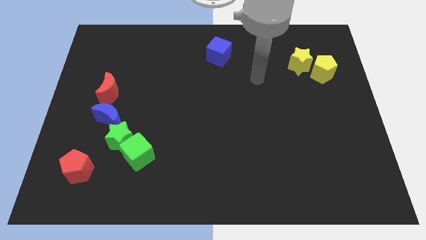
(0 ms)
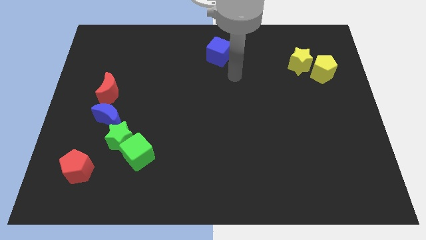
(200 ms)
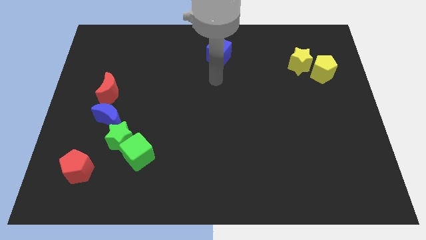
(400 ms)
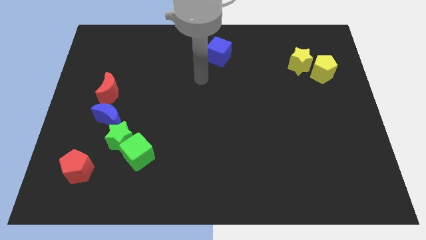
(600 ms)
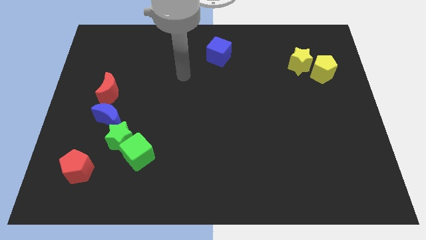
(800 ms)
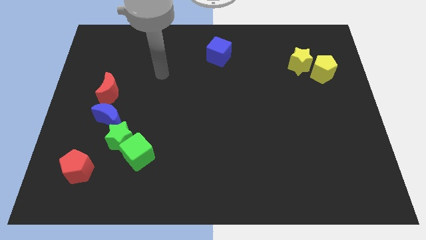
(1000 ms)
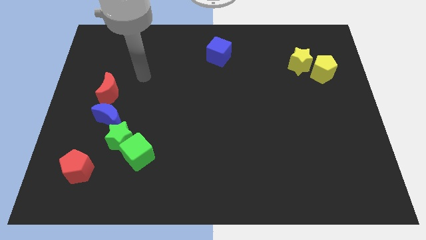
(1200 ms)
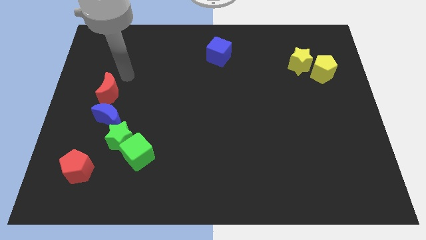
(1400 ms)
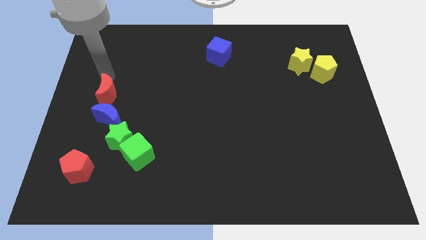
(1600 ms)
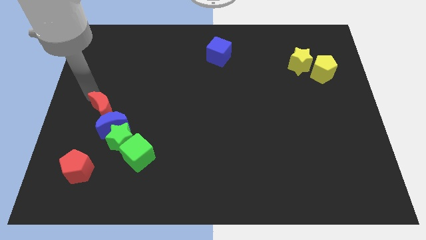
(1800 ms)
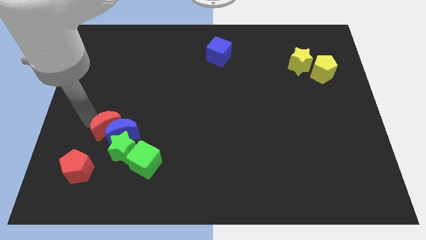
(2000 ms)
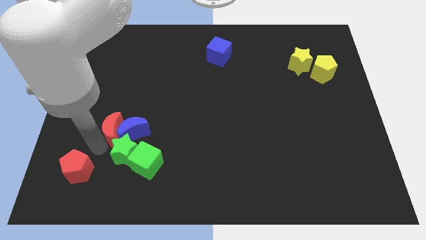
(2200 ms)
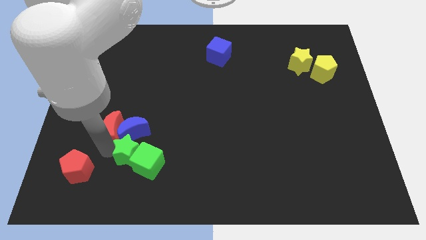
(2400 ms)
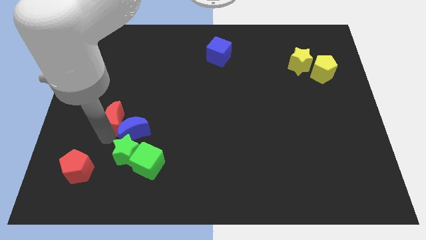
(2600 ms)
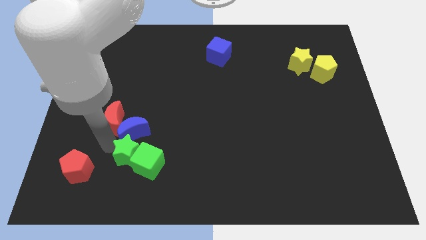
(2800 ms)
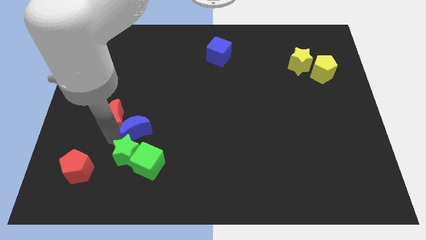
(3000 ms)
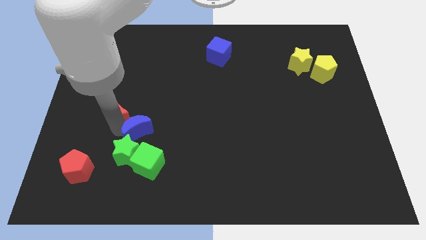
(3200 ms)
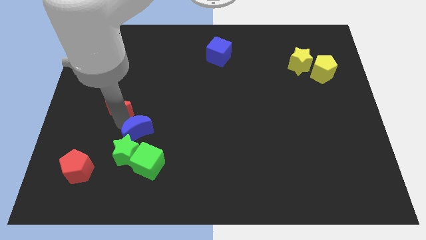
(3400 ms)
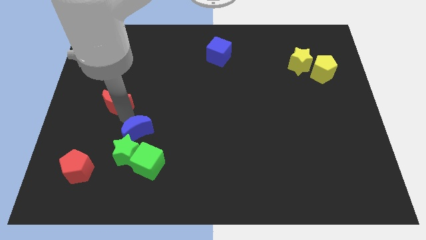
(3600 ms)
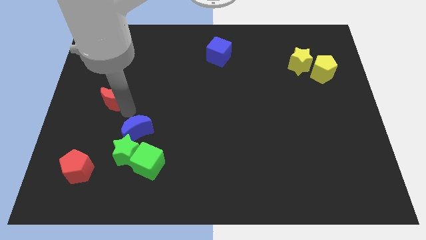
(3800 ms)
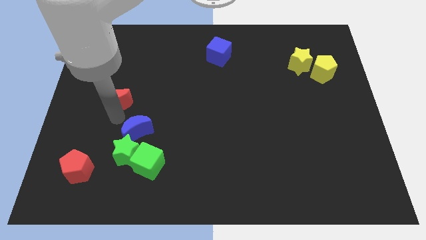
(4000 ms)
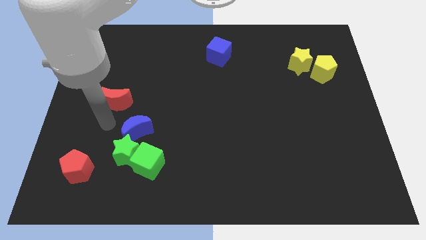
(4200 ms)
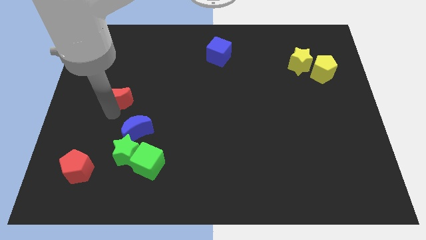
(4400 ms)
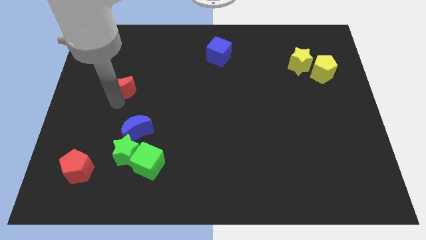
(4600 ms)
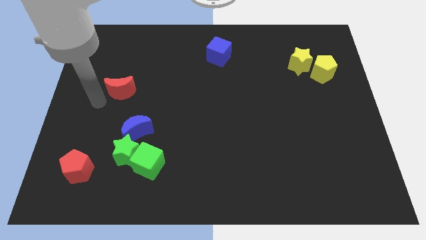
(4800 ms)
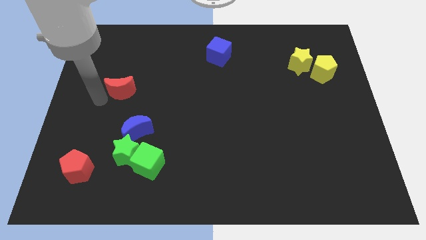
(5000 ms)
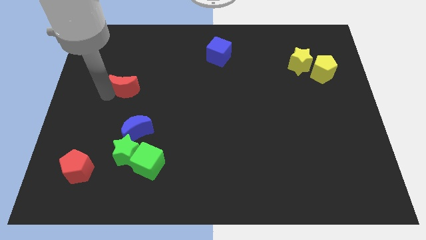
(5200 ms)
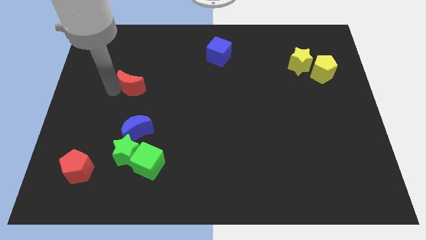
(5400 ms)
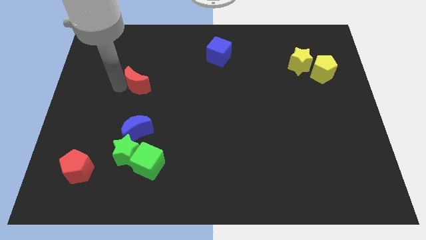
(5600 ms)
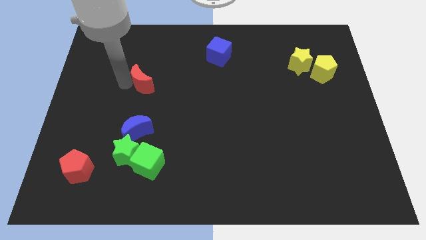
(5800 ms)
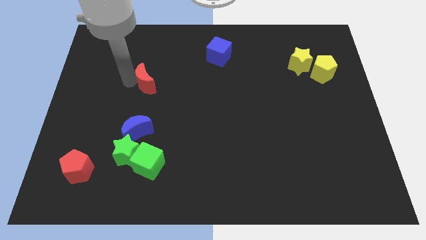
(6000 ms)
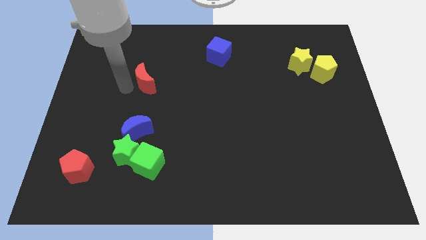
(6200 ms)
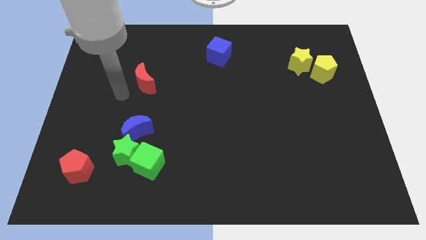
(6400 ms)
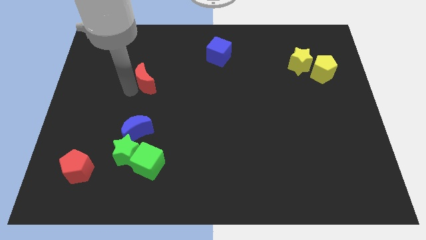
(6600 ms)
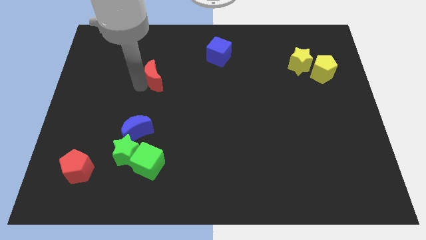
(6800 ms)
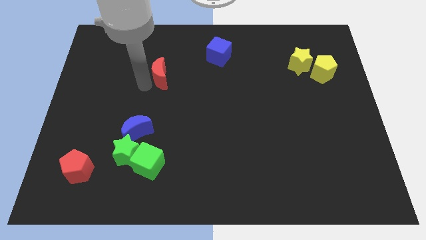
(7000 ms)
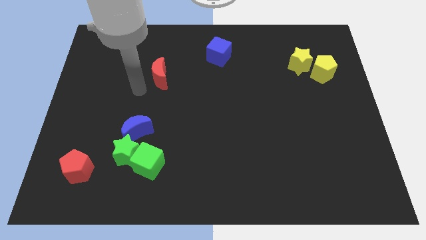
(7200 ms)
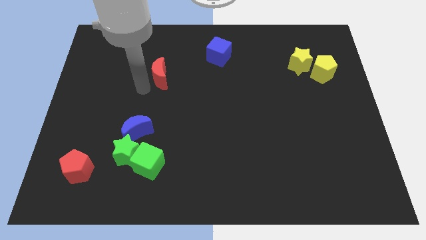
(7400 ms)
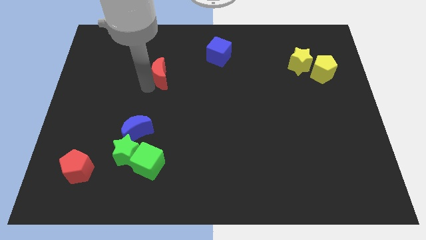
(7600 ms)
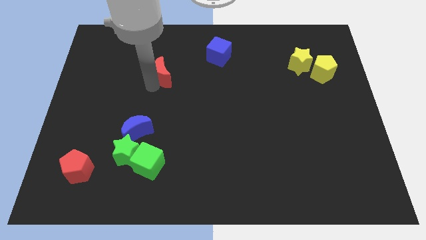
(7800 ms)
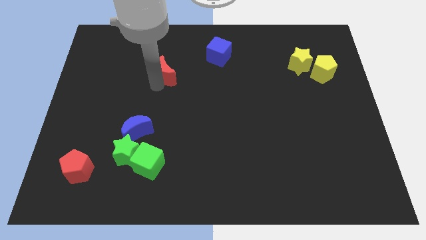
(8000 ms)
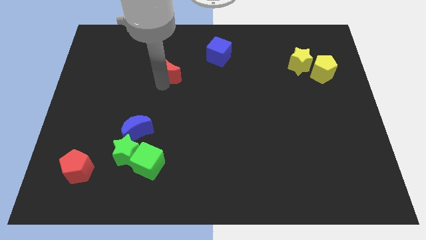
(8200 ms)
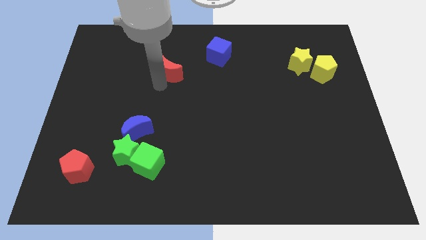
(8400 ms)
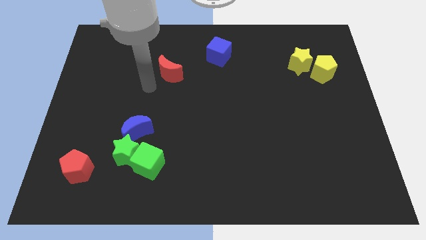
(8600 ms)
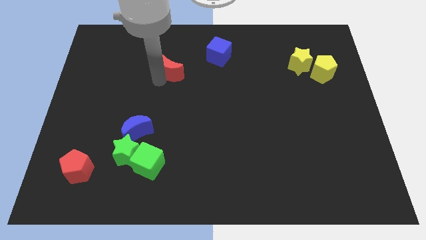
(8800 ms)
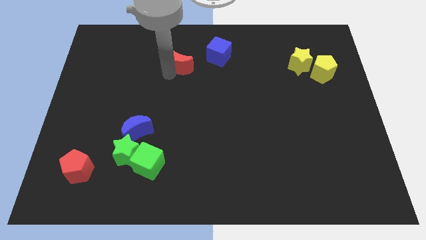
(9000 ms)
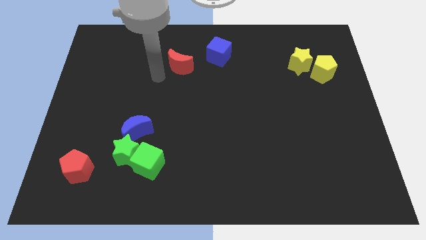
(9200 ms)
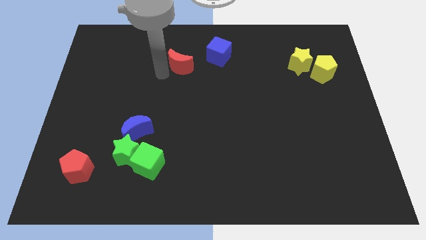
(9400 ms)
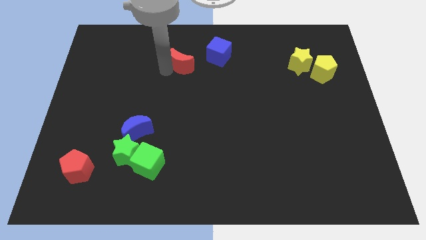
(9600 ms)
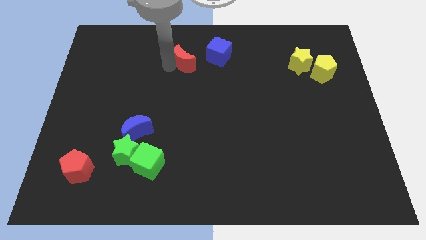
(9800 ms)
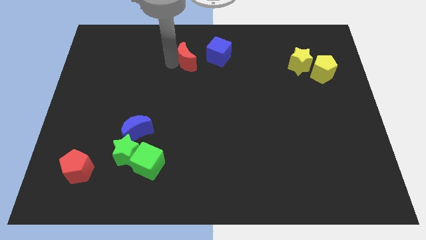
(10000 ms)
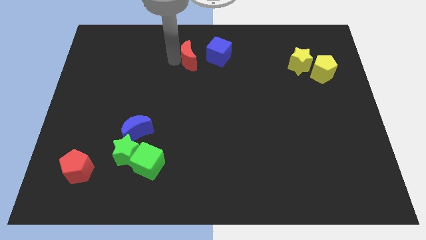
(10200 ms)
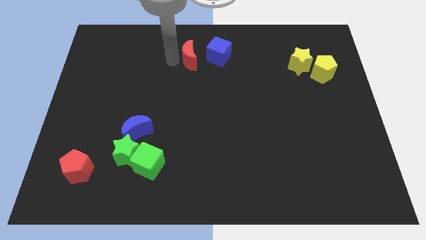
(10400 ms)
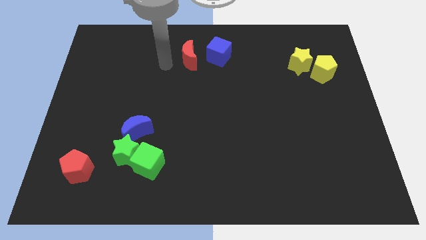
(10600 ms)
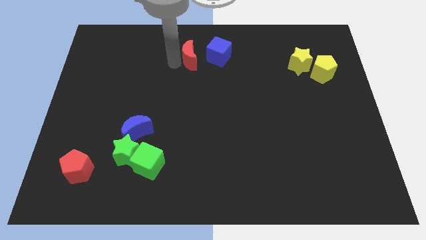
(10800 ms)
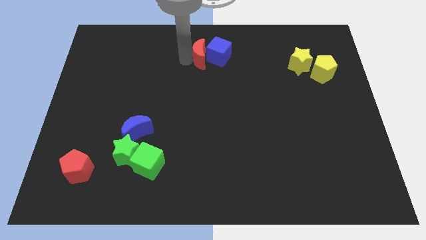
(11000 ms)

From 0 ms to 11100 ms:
slide the red moon to the blue cube
